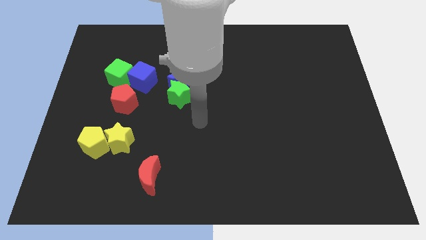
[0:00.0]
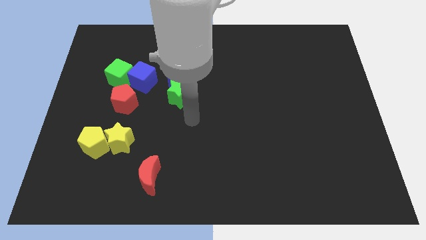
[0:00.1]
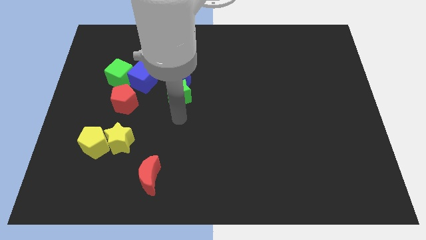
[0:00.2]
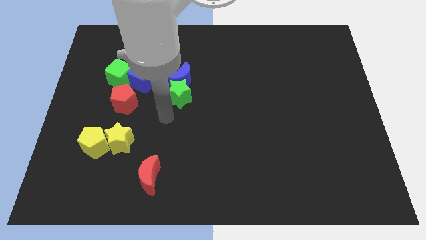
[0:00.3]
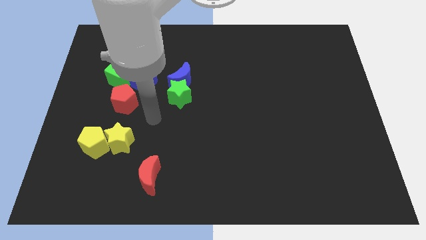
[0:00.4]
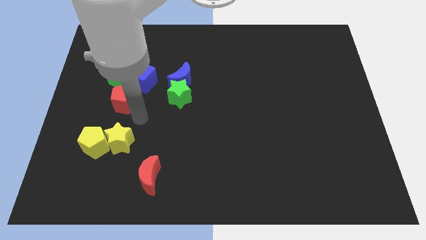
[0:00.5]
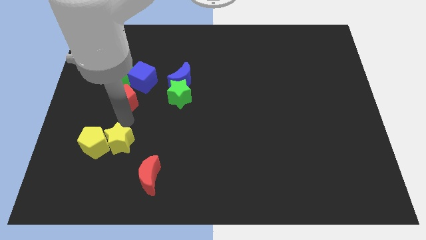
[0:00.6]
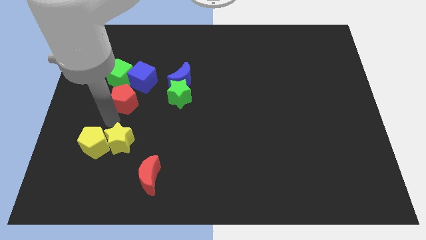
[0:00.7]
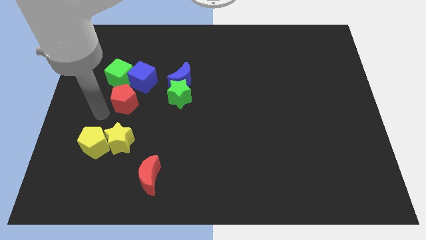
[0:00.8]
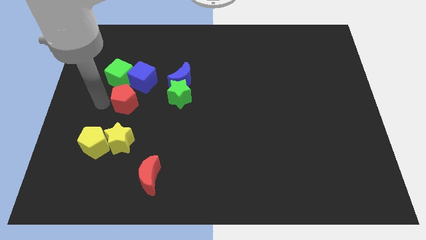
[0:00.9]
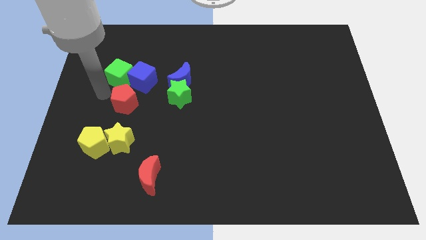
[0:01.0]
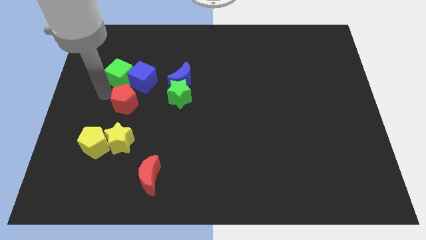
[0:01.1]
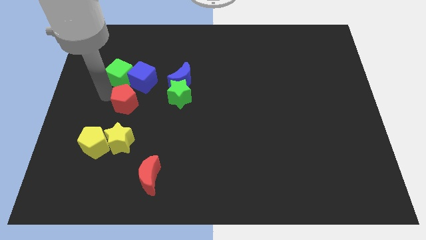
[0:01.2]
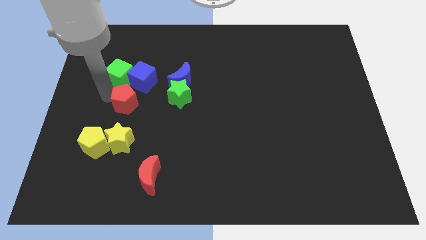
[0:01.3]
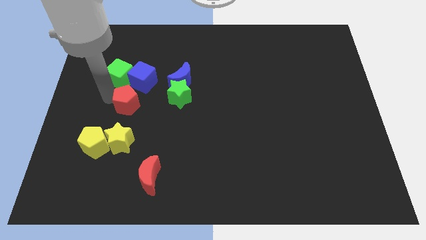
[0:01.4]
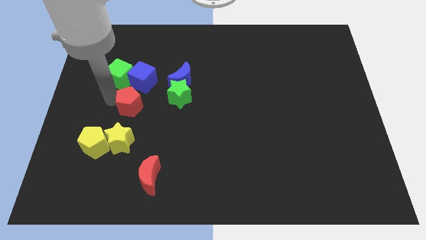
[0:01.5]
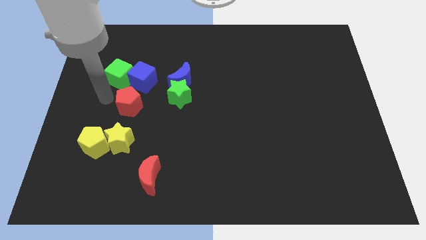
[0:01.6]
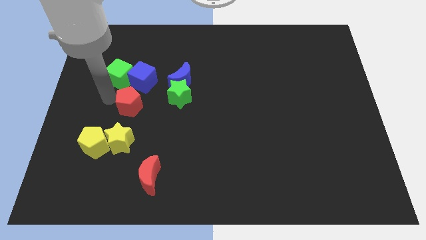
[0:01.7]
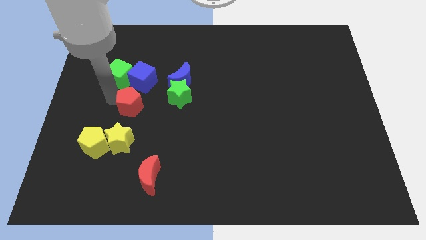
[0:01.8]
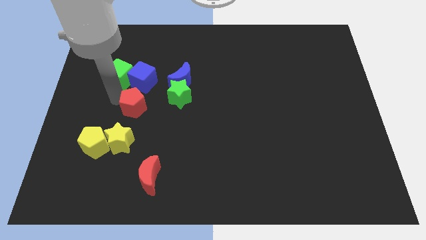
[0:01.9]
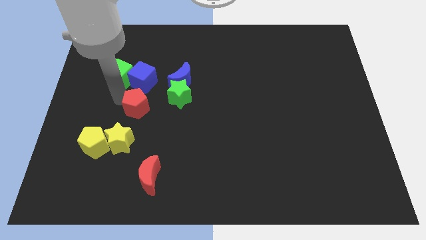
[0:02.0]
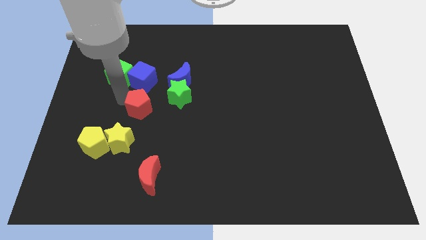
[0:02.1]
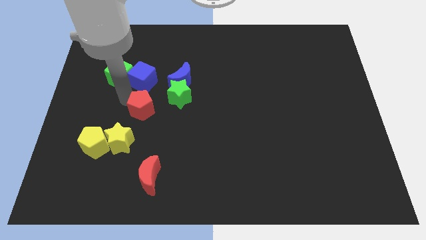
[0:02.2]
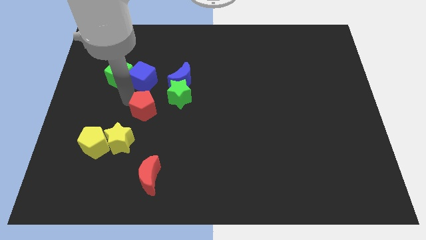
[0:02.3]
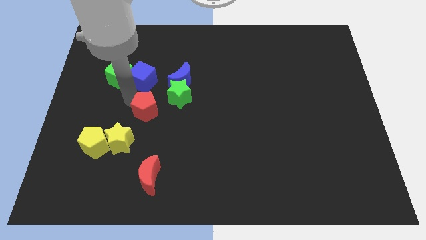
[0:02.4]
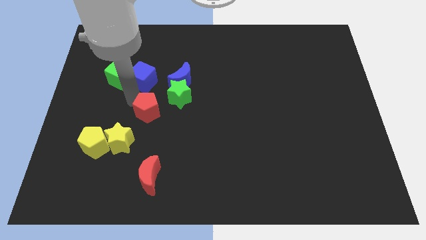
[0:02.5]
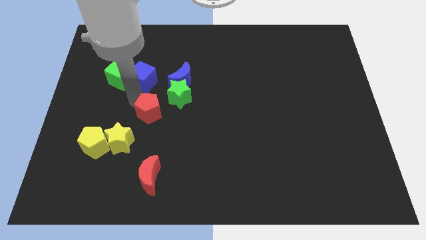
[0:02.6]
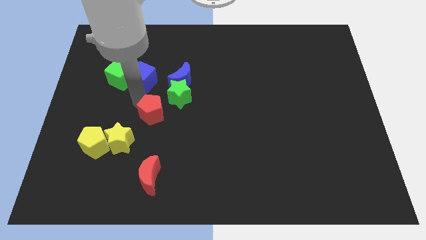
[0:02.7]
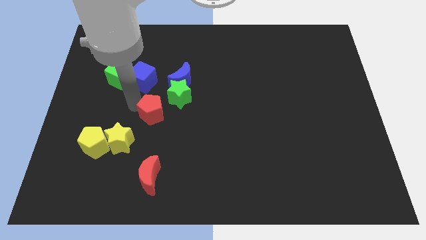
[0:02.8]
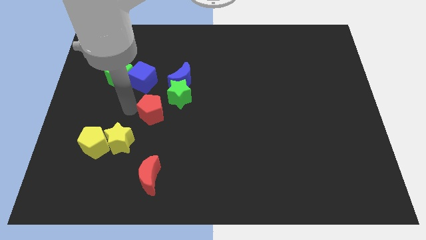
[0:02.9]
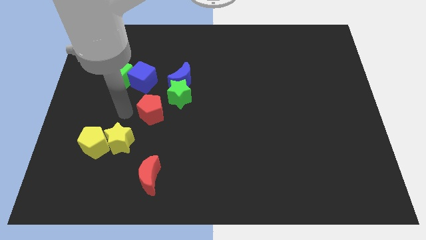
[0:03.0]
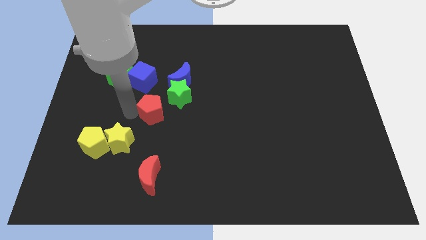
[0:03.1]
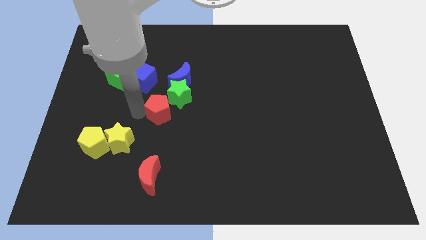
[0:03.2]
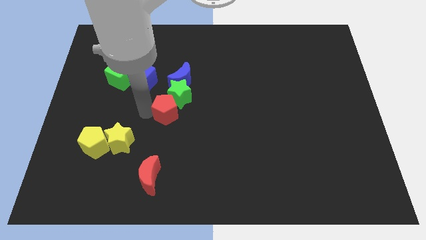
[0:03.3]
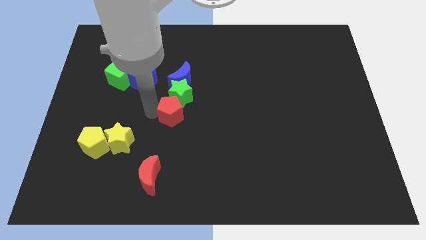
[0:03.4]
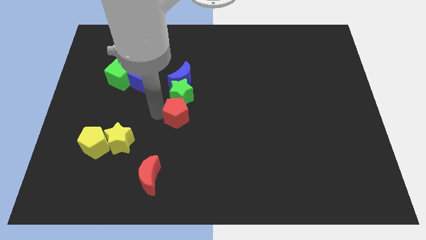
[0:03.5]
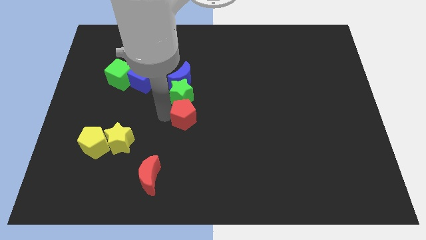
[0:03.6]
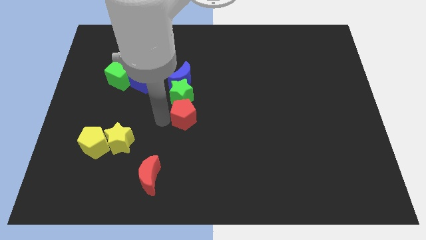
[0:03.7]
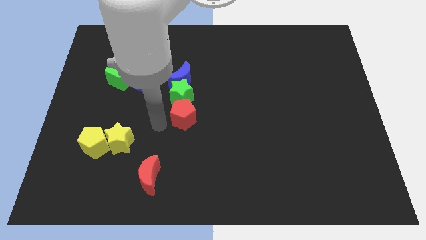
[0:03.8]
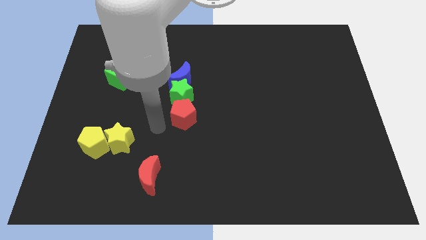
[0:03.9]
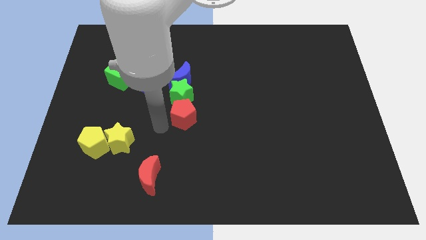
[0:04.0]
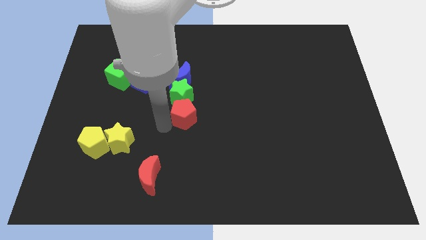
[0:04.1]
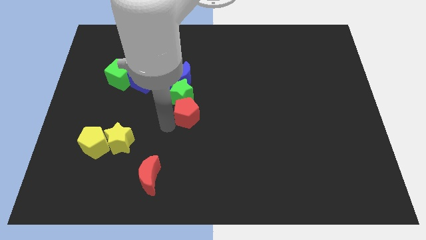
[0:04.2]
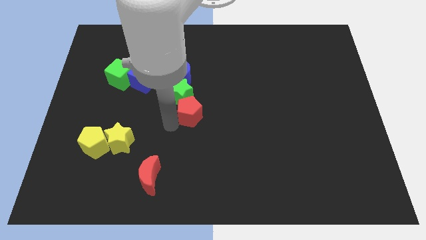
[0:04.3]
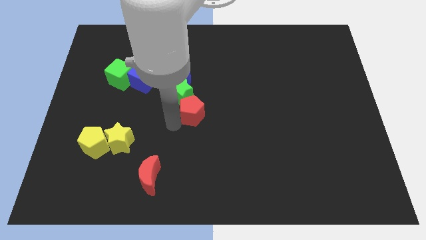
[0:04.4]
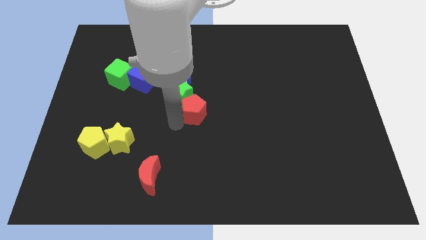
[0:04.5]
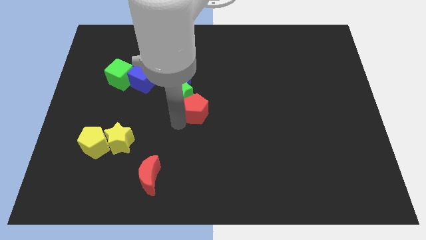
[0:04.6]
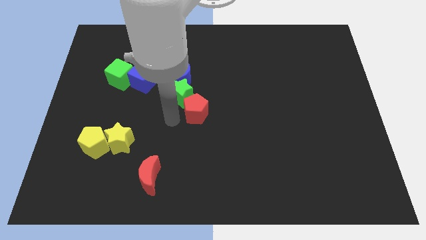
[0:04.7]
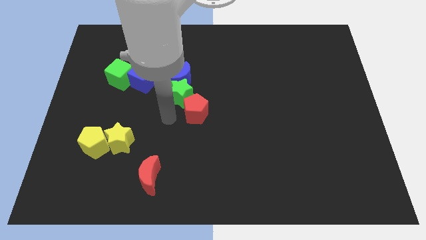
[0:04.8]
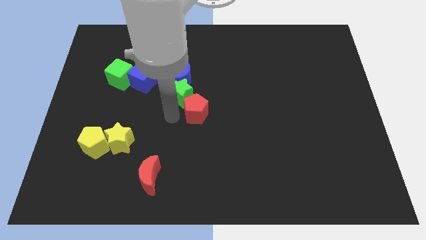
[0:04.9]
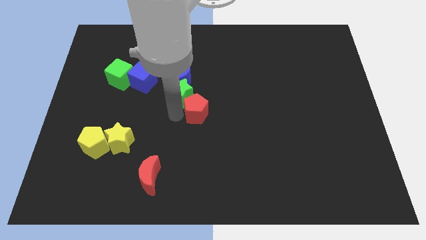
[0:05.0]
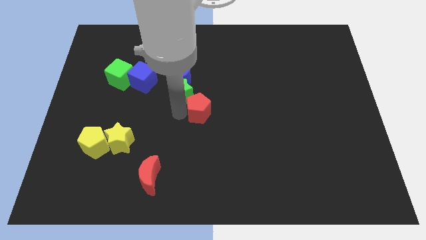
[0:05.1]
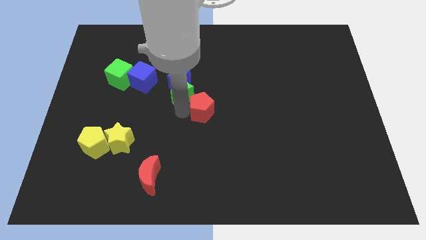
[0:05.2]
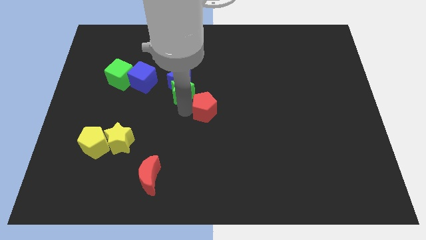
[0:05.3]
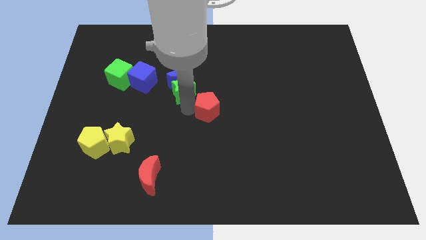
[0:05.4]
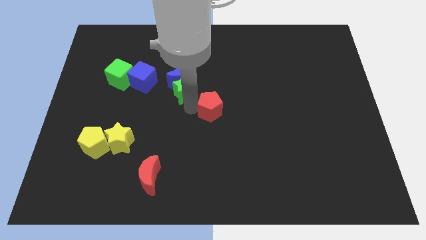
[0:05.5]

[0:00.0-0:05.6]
slide the red pentagon to the right

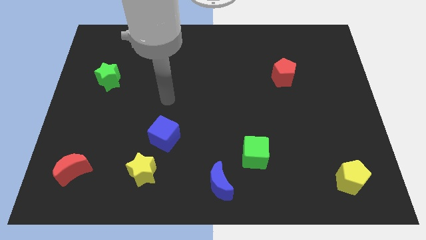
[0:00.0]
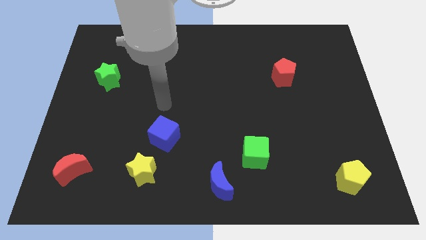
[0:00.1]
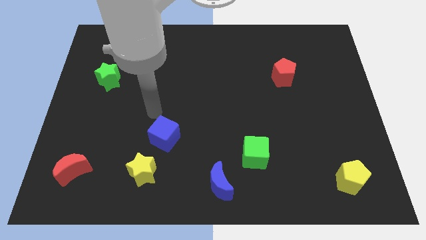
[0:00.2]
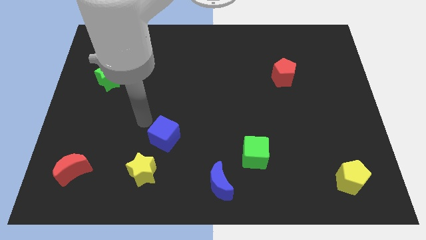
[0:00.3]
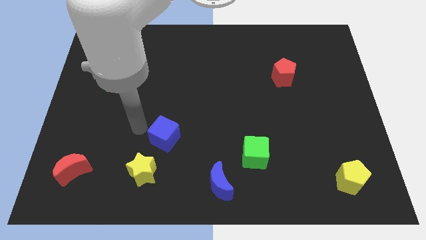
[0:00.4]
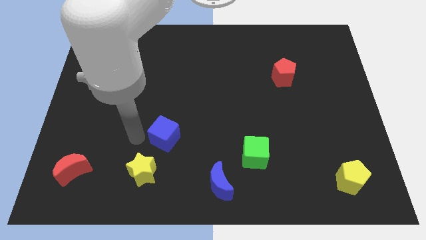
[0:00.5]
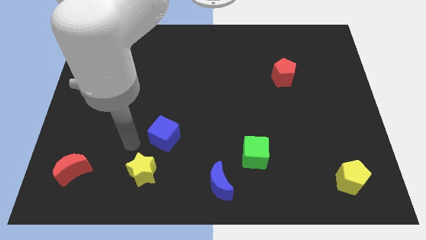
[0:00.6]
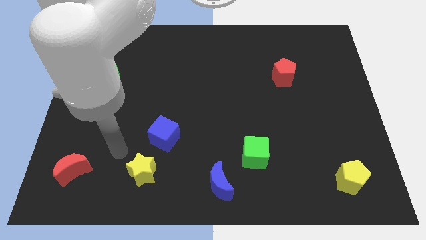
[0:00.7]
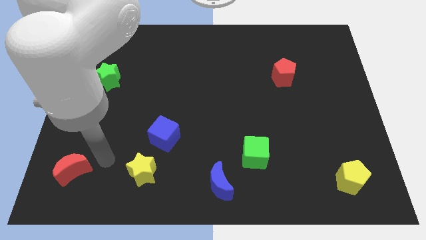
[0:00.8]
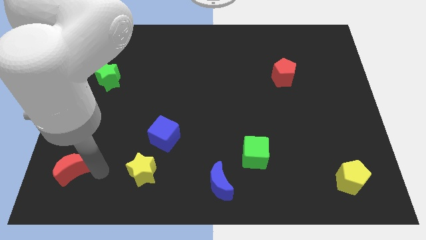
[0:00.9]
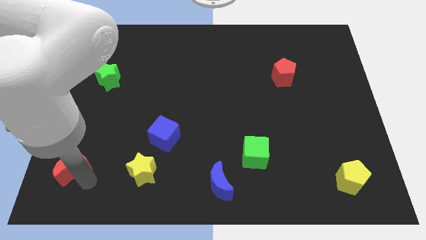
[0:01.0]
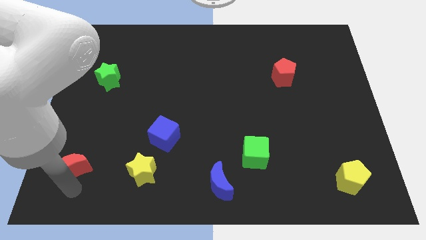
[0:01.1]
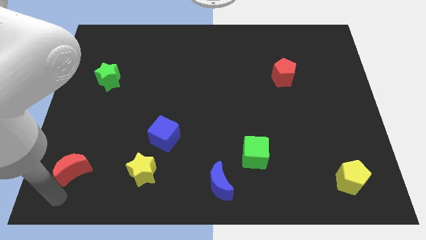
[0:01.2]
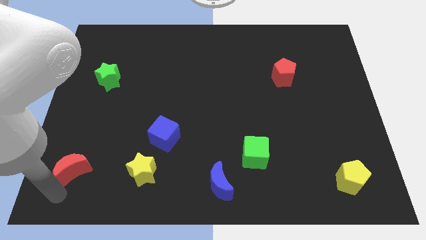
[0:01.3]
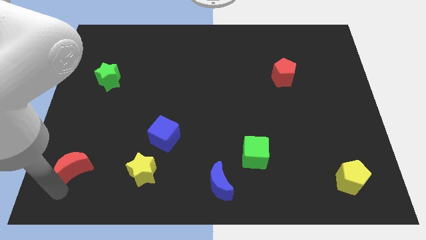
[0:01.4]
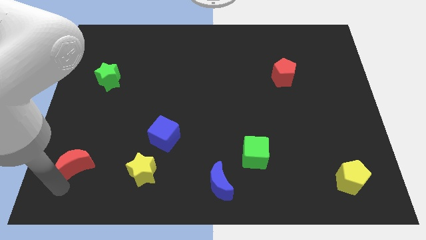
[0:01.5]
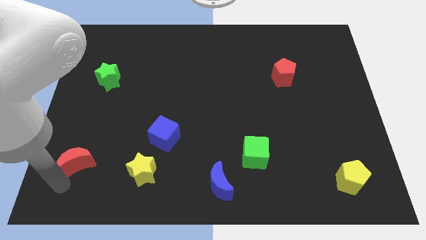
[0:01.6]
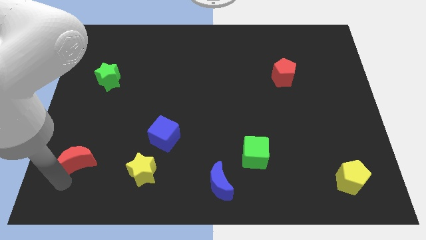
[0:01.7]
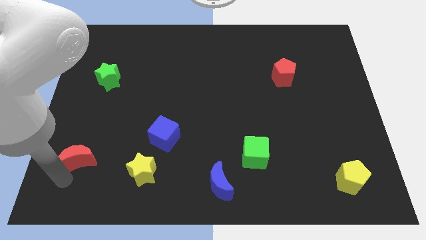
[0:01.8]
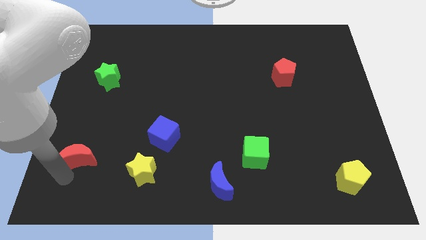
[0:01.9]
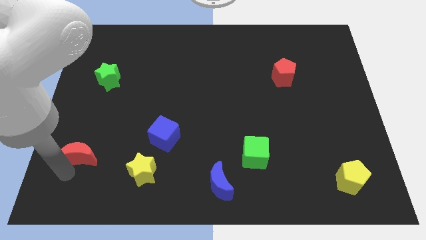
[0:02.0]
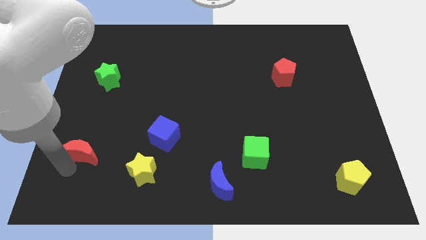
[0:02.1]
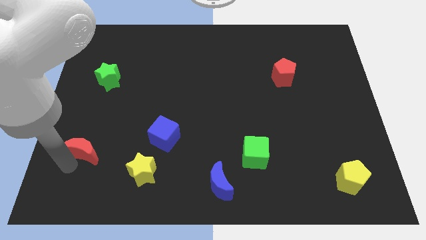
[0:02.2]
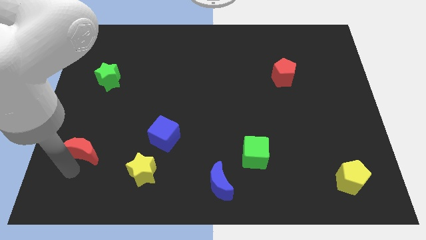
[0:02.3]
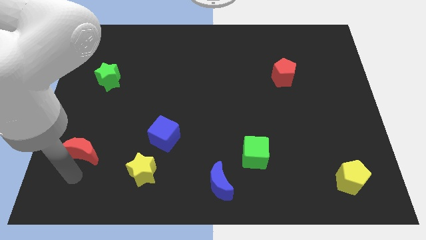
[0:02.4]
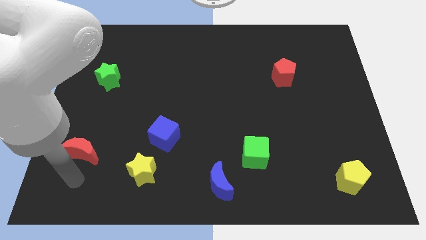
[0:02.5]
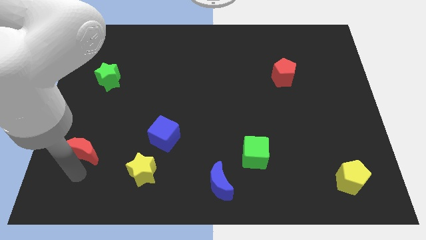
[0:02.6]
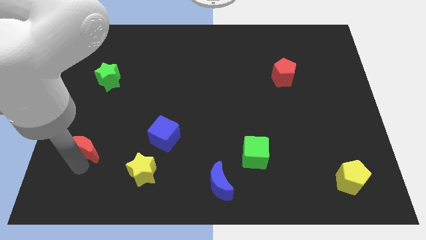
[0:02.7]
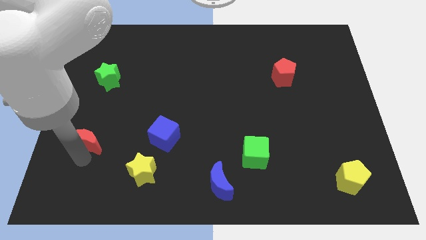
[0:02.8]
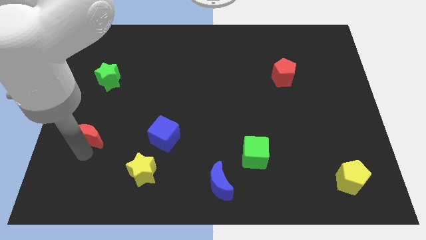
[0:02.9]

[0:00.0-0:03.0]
slide the red moon a bit up
